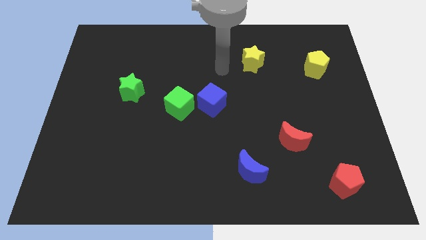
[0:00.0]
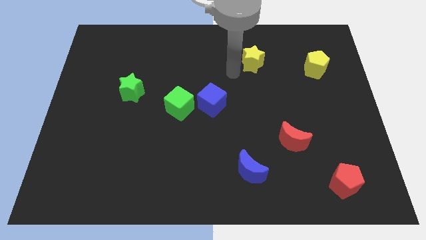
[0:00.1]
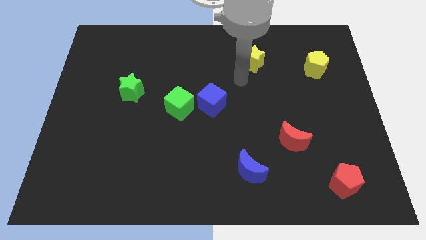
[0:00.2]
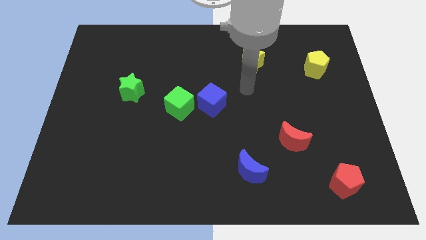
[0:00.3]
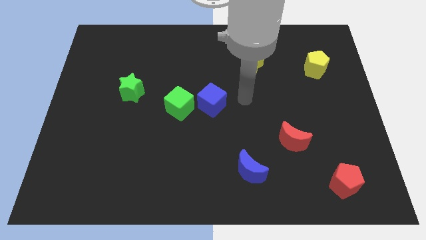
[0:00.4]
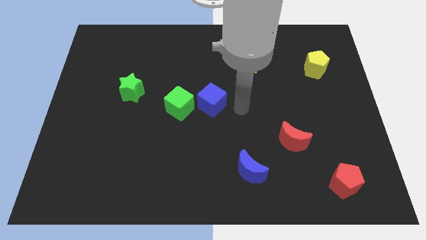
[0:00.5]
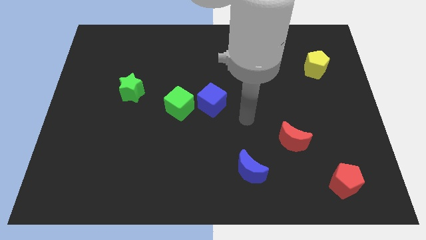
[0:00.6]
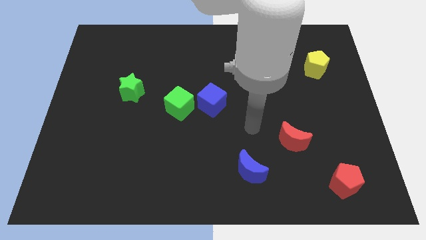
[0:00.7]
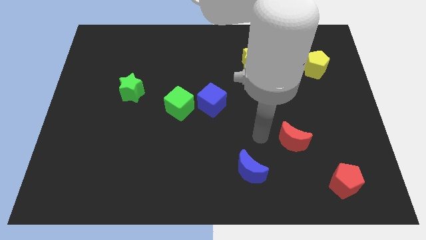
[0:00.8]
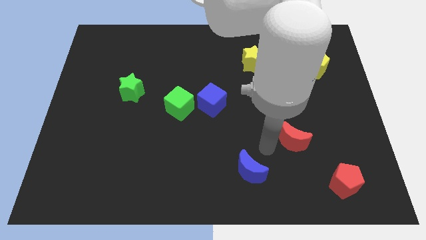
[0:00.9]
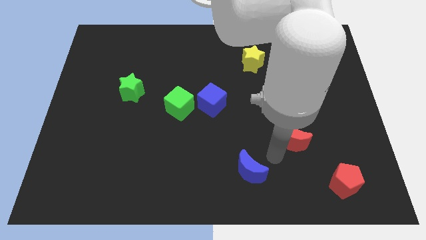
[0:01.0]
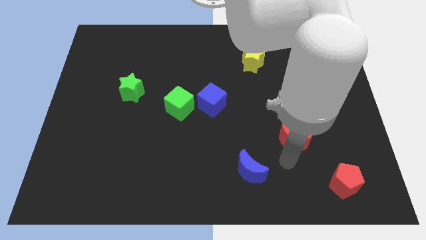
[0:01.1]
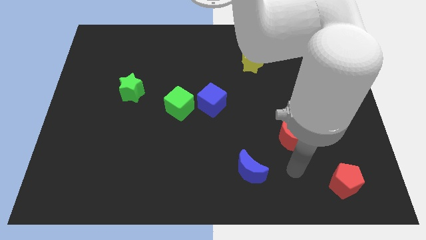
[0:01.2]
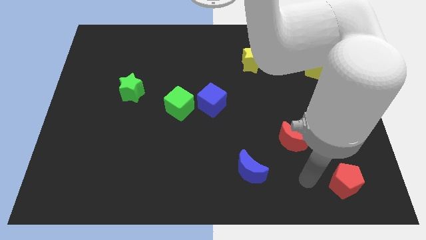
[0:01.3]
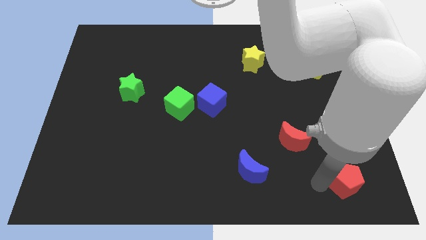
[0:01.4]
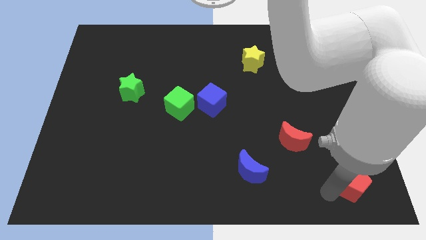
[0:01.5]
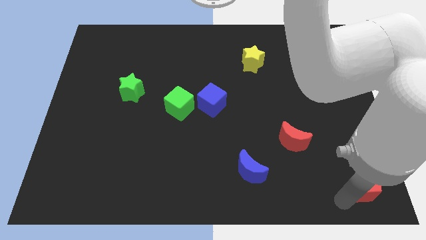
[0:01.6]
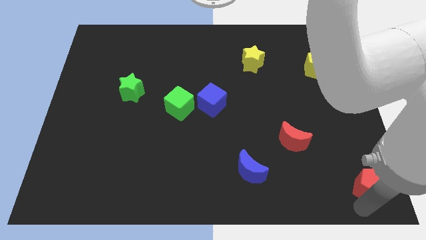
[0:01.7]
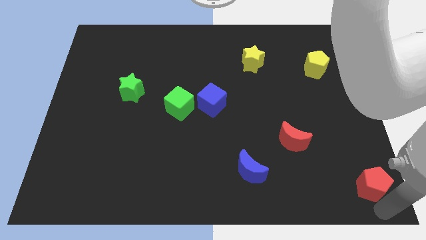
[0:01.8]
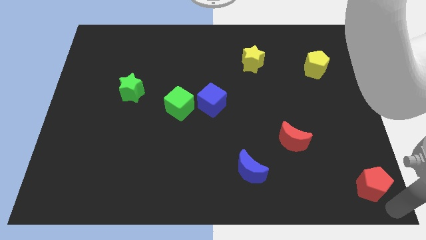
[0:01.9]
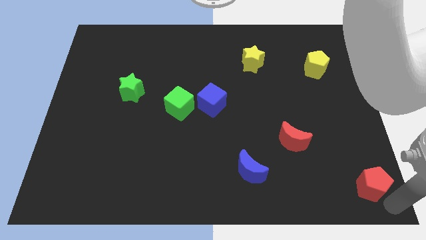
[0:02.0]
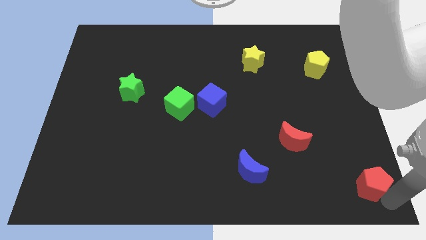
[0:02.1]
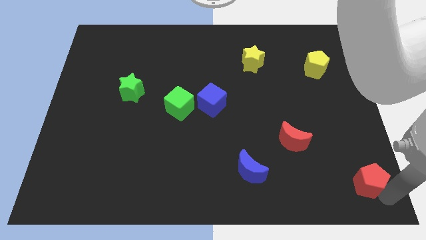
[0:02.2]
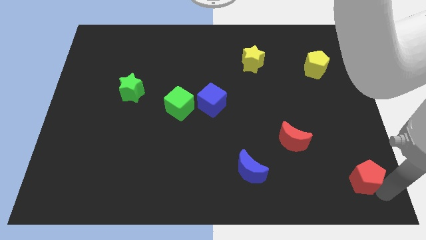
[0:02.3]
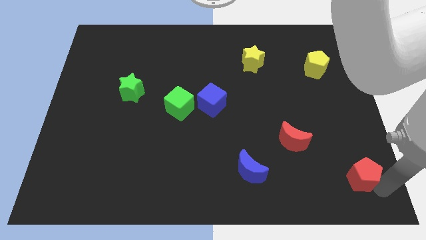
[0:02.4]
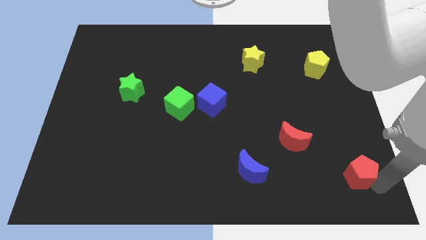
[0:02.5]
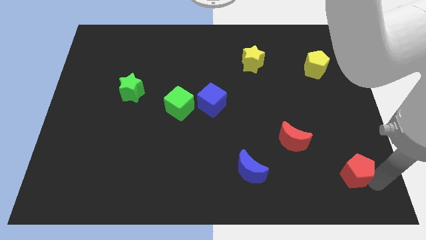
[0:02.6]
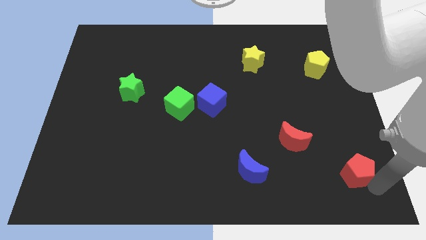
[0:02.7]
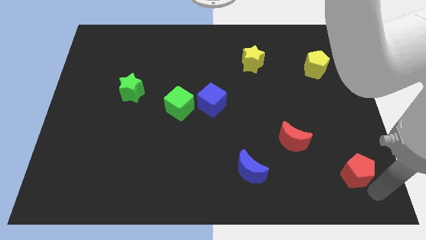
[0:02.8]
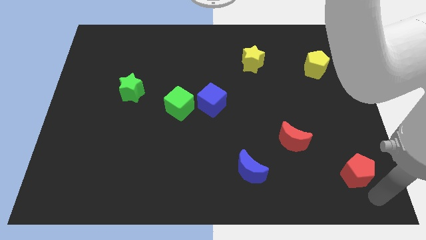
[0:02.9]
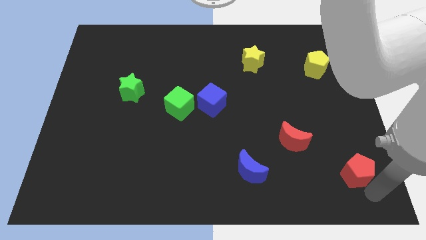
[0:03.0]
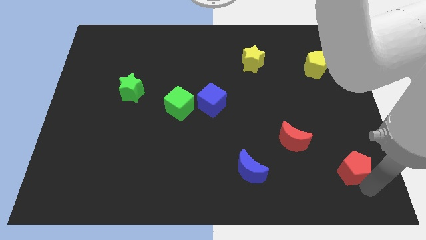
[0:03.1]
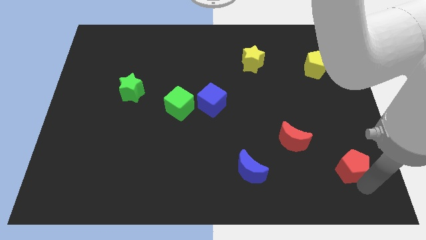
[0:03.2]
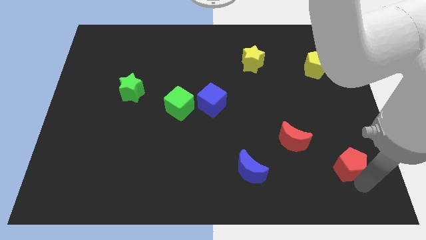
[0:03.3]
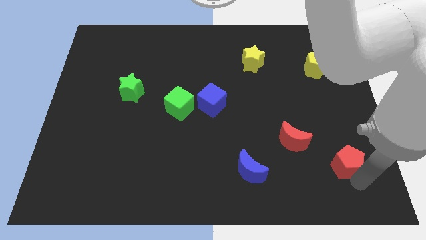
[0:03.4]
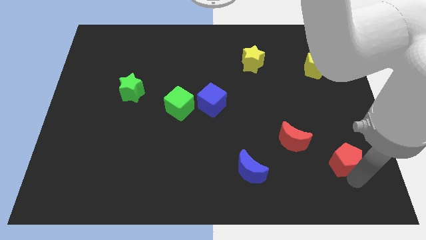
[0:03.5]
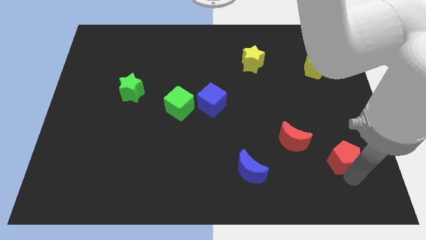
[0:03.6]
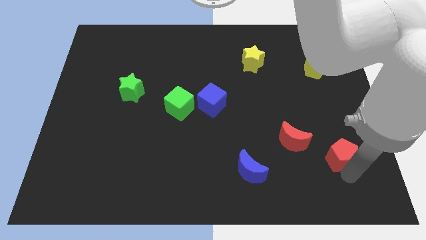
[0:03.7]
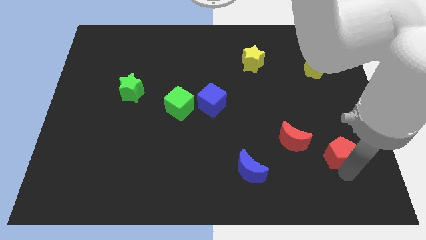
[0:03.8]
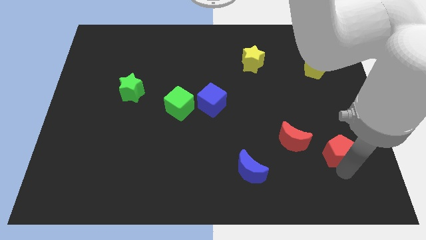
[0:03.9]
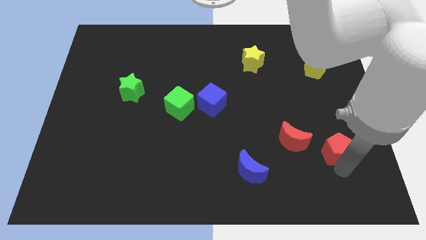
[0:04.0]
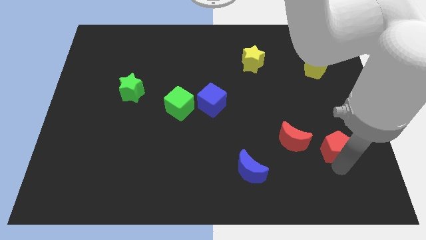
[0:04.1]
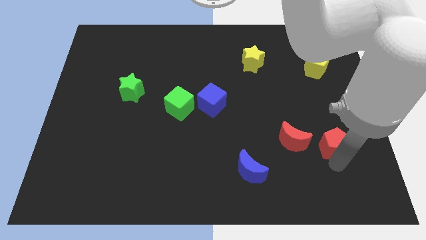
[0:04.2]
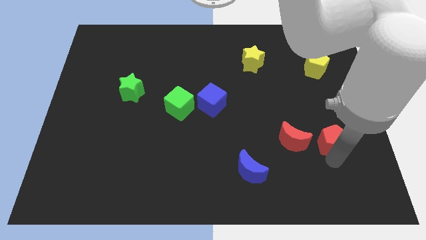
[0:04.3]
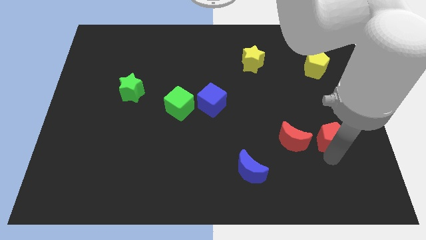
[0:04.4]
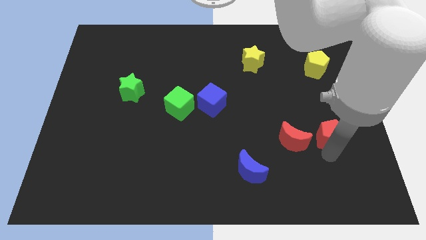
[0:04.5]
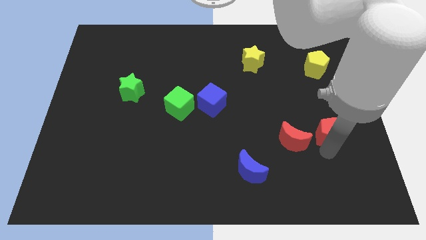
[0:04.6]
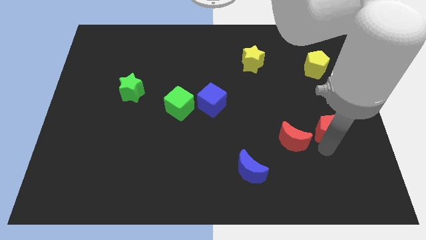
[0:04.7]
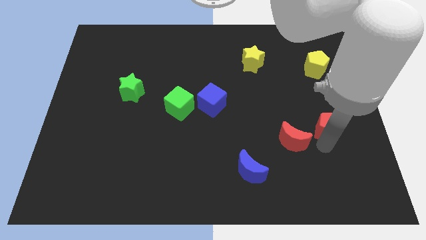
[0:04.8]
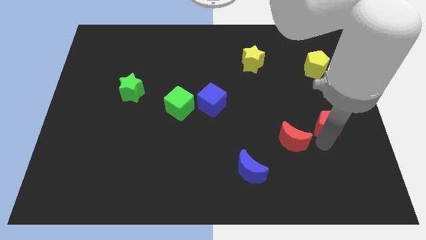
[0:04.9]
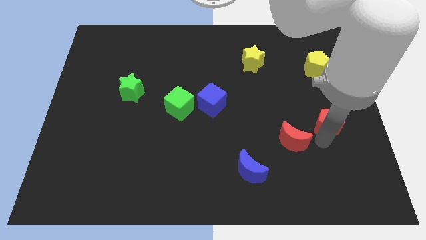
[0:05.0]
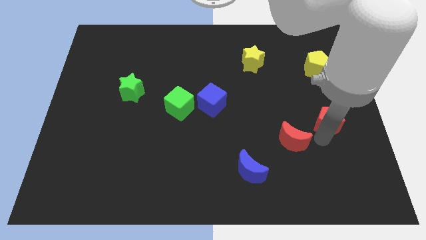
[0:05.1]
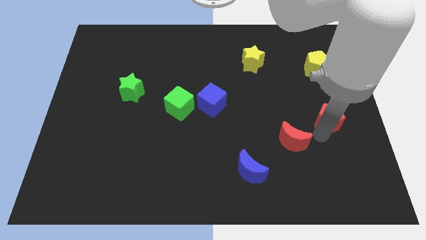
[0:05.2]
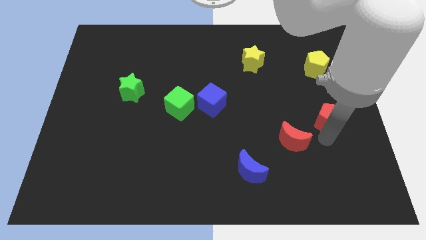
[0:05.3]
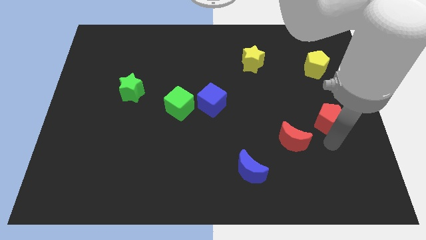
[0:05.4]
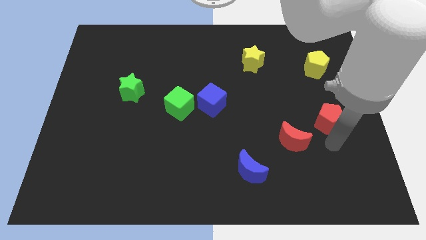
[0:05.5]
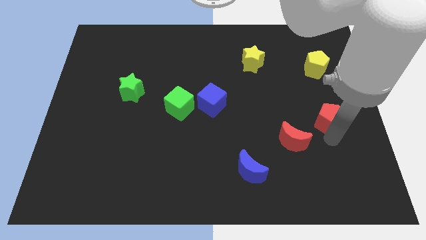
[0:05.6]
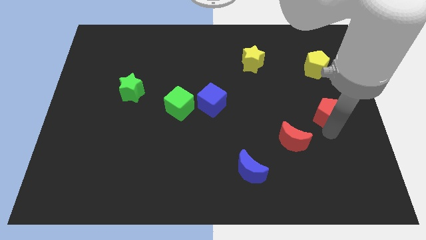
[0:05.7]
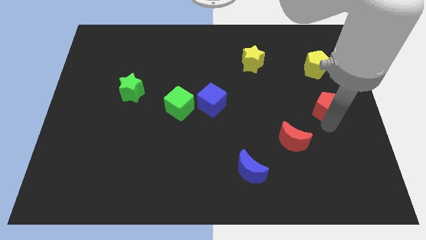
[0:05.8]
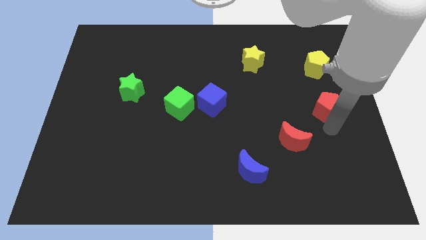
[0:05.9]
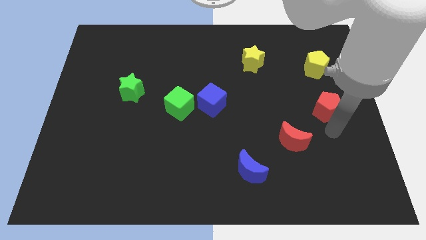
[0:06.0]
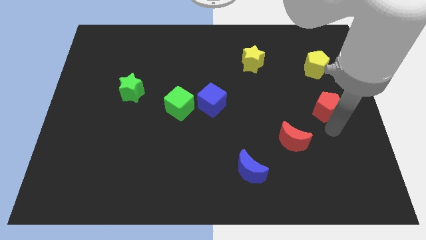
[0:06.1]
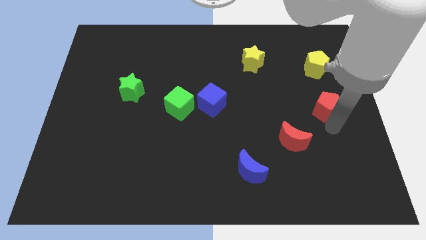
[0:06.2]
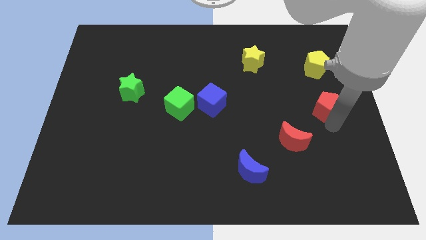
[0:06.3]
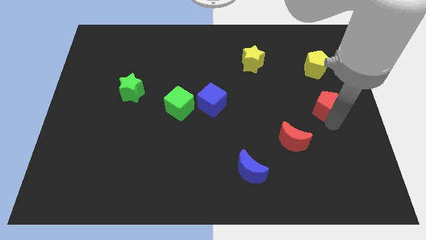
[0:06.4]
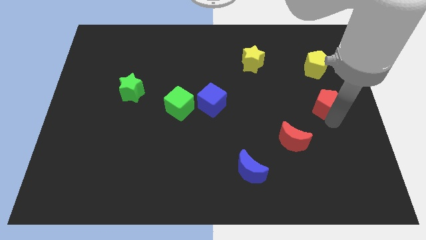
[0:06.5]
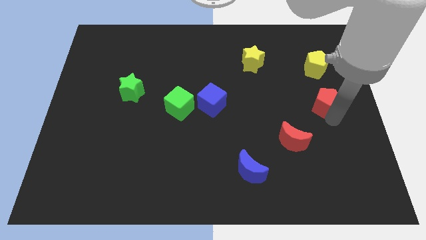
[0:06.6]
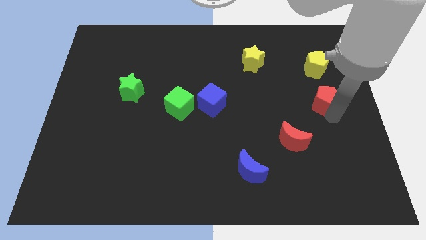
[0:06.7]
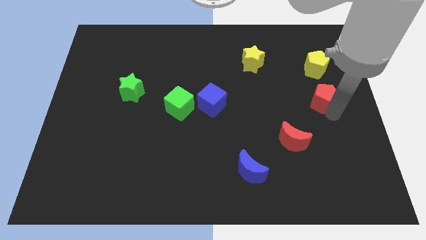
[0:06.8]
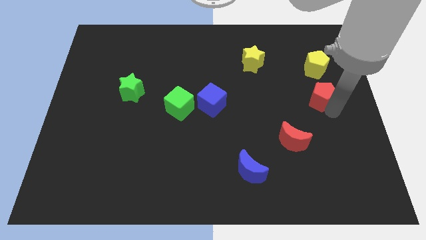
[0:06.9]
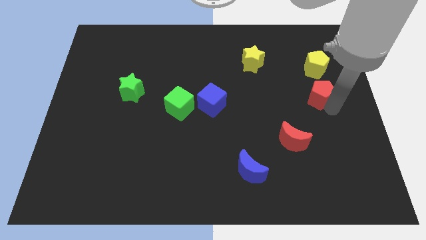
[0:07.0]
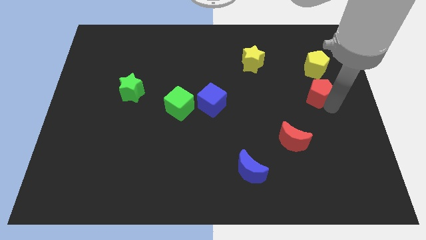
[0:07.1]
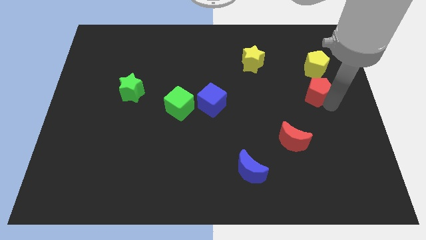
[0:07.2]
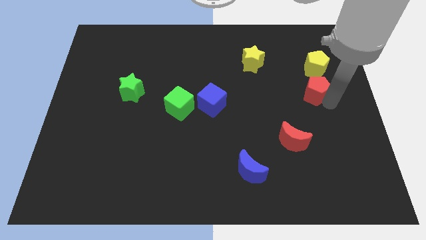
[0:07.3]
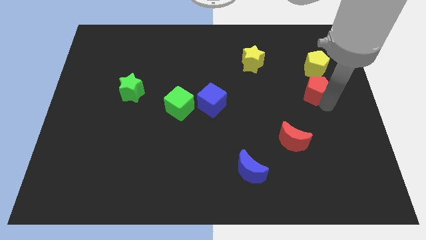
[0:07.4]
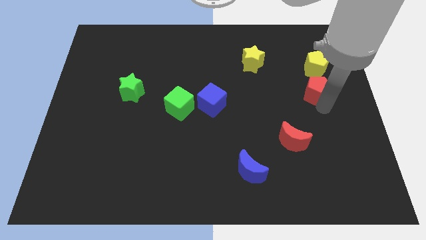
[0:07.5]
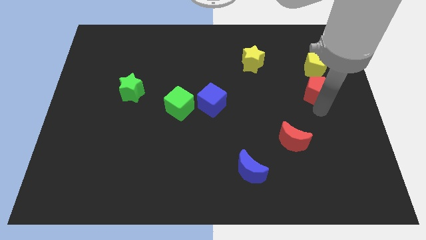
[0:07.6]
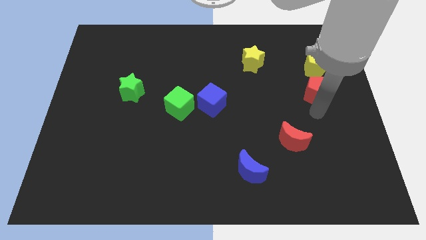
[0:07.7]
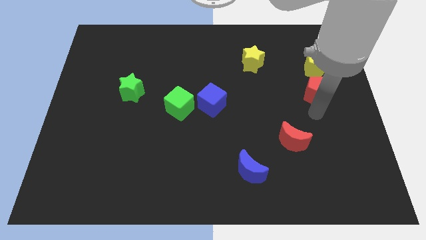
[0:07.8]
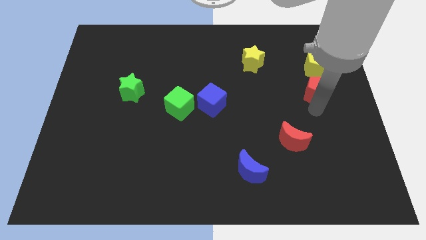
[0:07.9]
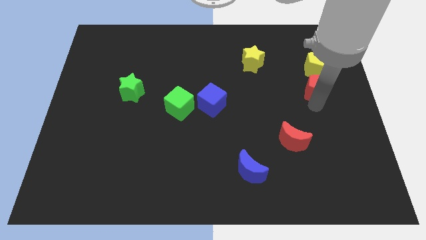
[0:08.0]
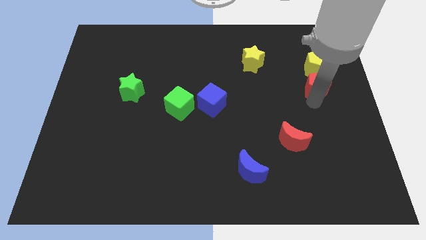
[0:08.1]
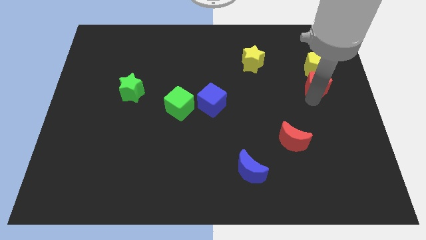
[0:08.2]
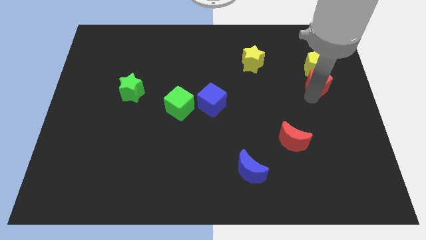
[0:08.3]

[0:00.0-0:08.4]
push the red pentagon close to the yellow pentagon
